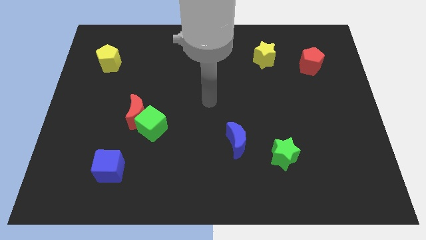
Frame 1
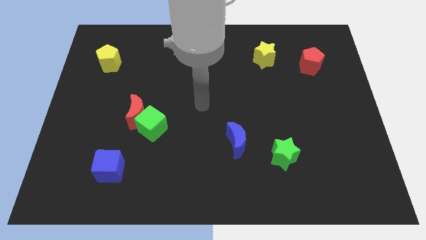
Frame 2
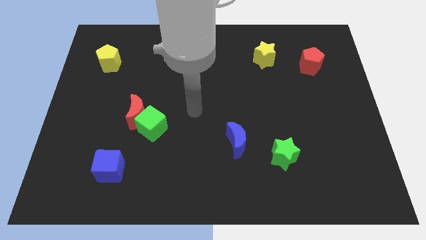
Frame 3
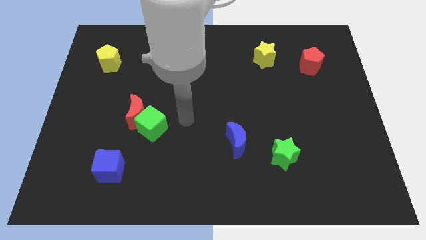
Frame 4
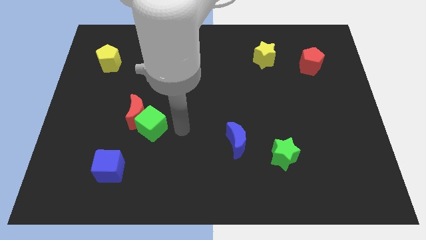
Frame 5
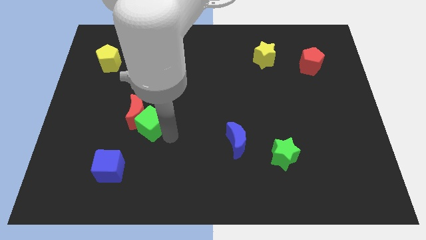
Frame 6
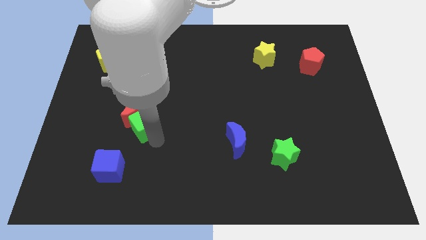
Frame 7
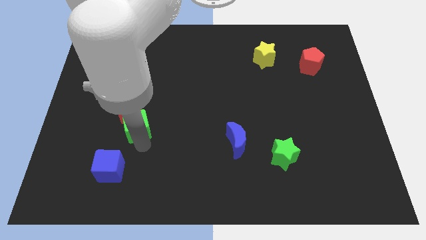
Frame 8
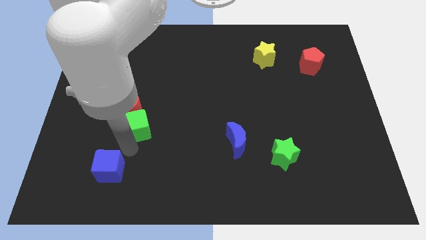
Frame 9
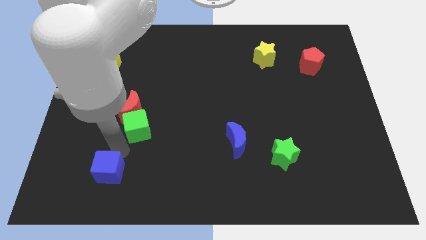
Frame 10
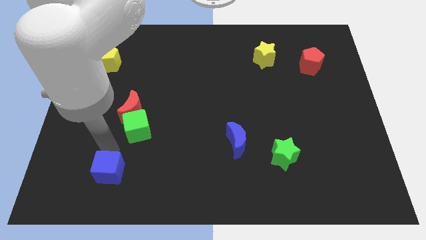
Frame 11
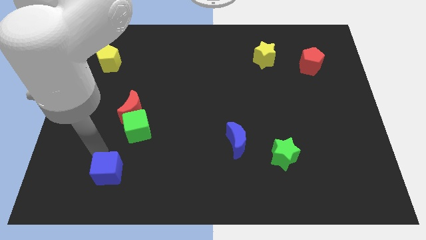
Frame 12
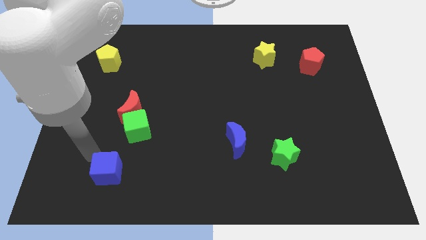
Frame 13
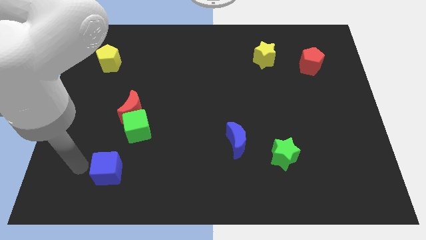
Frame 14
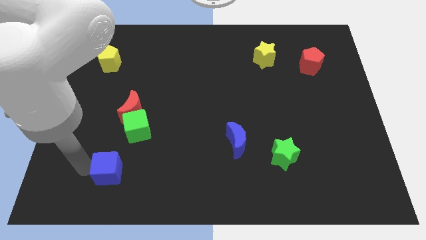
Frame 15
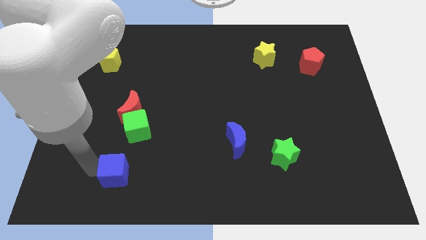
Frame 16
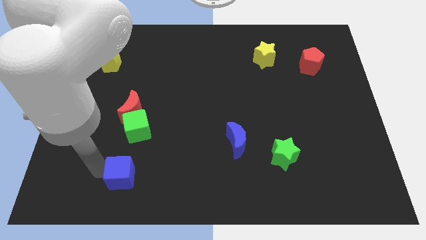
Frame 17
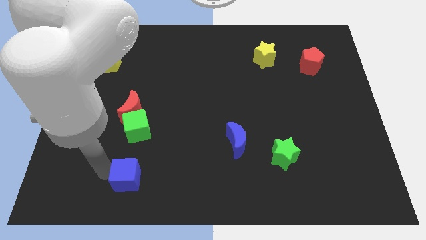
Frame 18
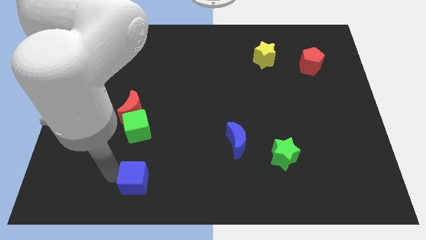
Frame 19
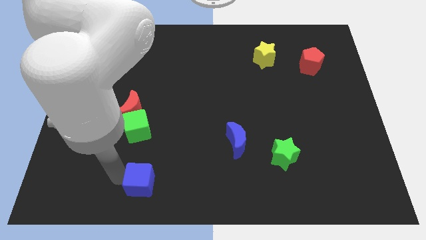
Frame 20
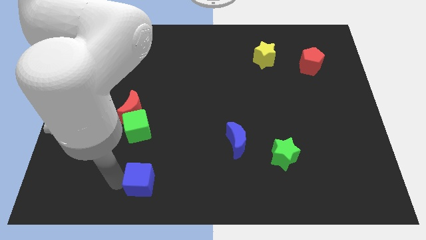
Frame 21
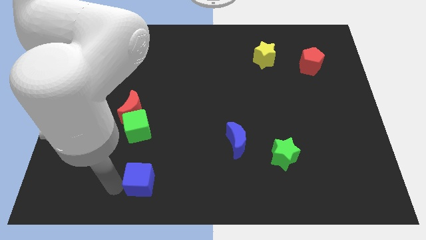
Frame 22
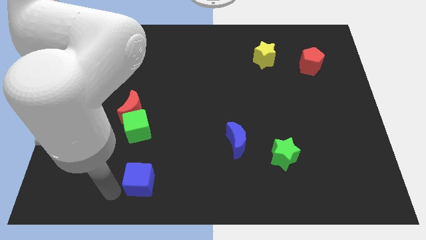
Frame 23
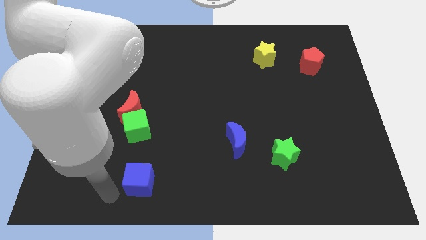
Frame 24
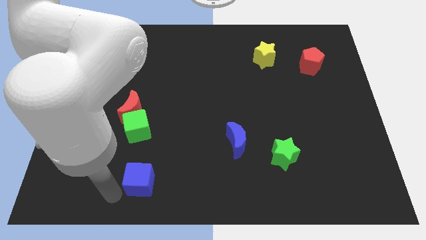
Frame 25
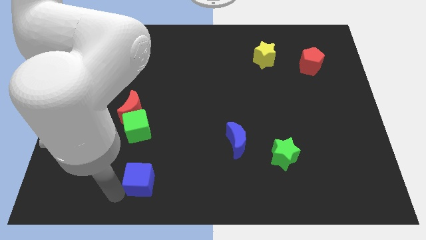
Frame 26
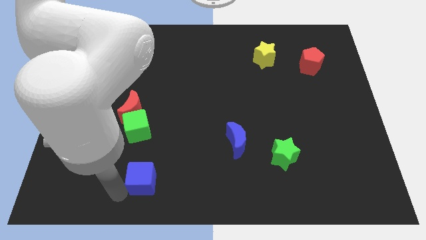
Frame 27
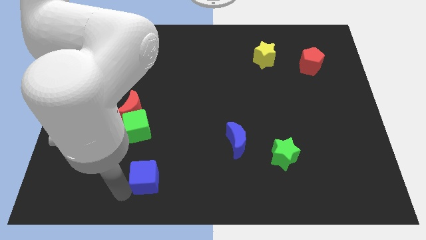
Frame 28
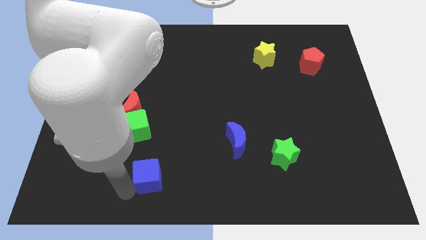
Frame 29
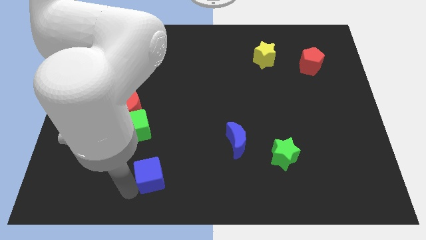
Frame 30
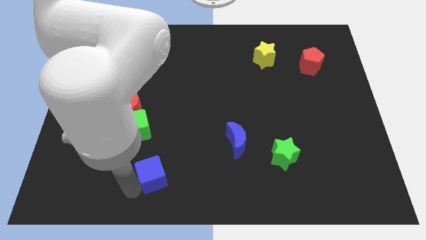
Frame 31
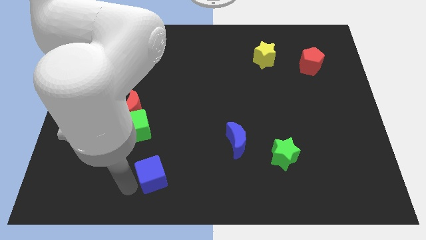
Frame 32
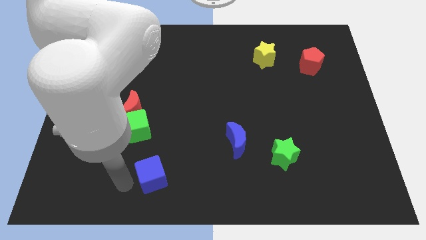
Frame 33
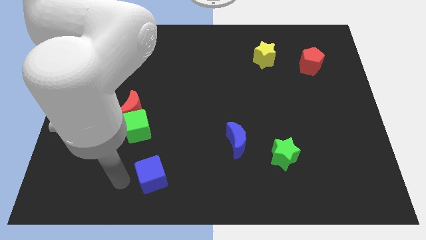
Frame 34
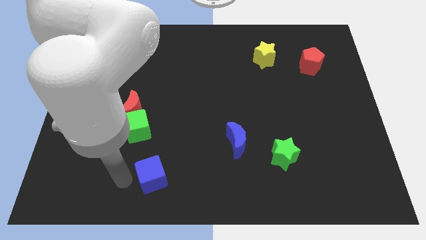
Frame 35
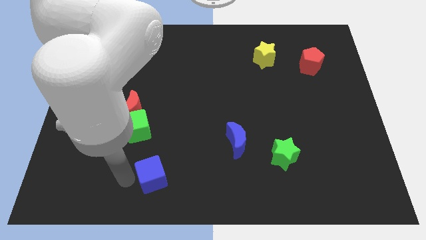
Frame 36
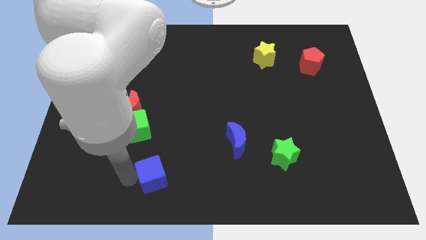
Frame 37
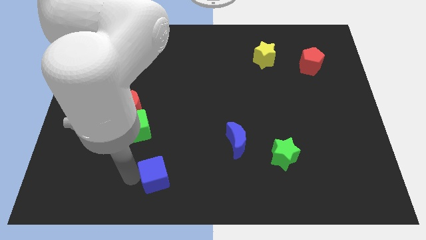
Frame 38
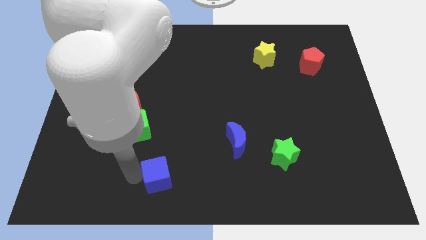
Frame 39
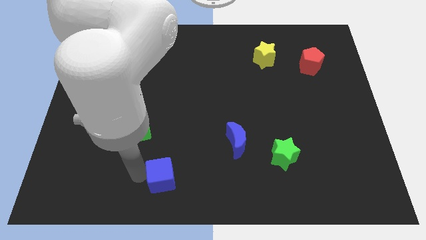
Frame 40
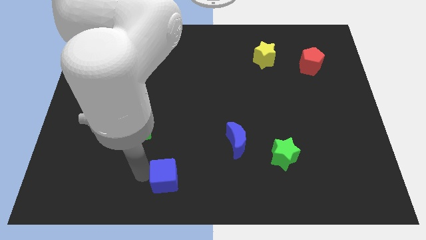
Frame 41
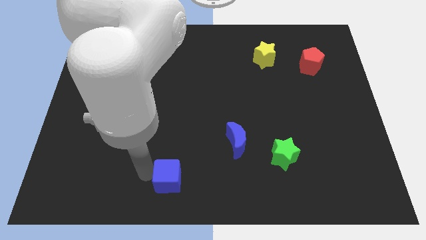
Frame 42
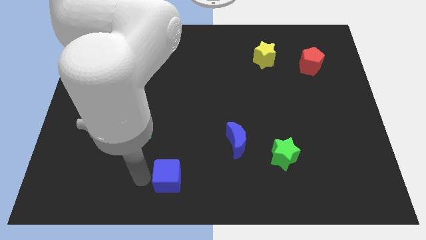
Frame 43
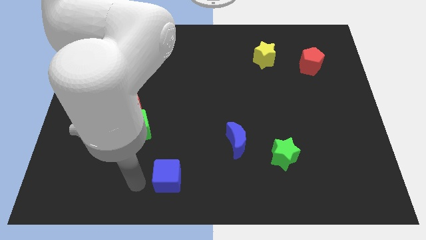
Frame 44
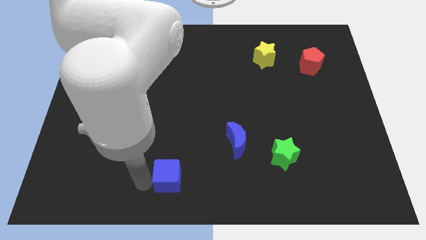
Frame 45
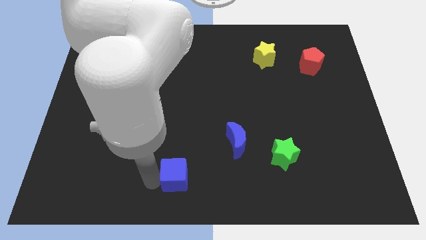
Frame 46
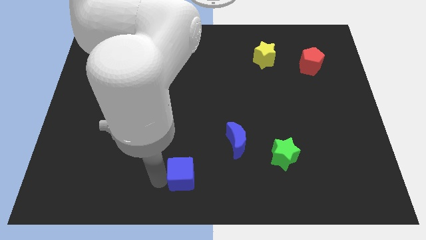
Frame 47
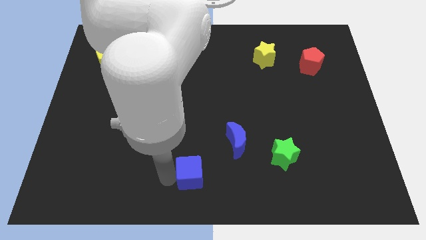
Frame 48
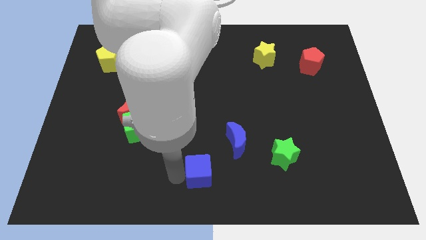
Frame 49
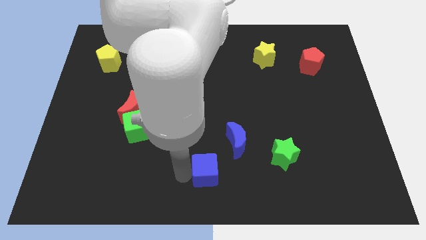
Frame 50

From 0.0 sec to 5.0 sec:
push the blue cube to the right

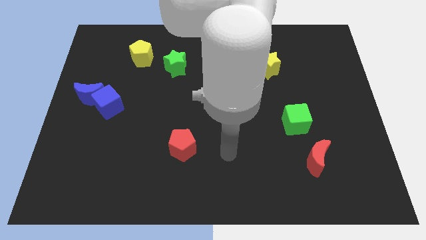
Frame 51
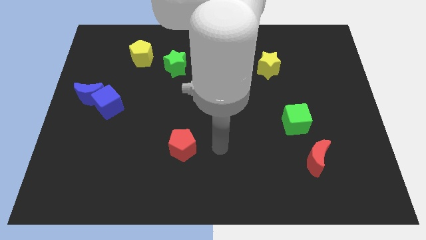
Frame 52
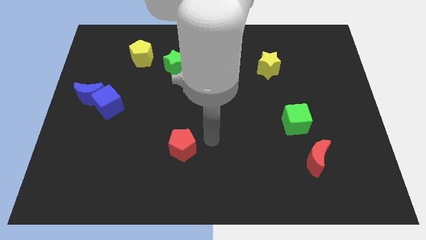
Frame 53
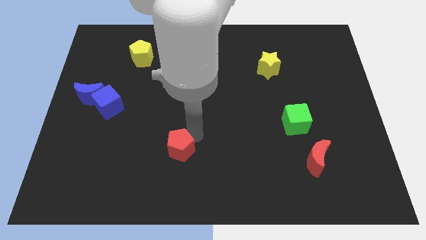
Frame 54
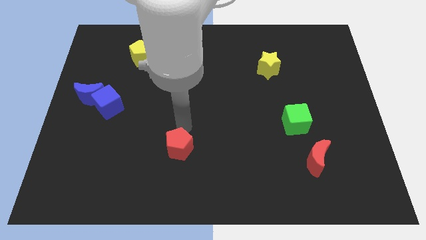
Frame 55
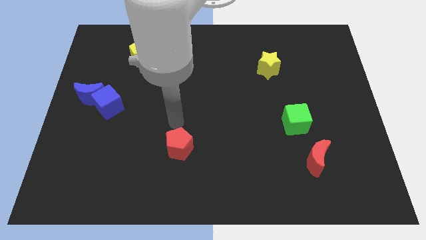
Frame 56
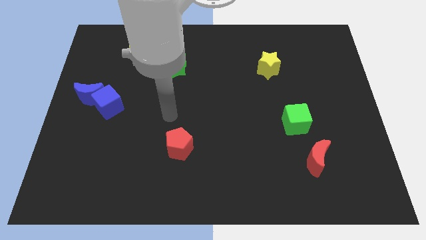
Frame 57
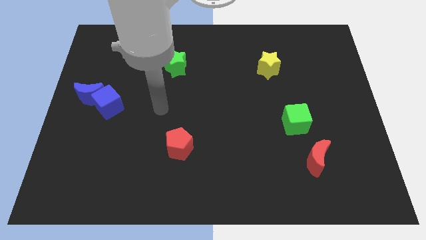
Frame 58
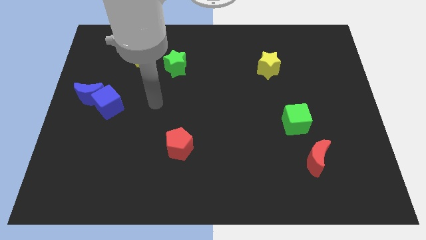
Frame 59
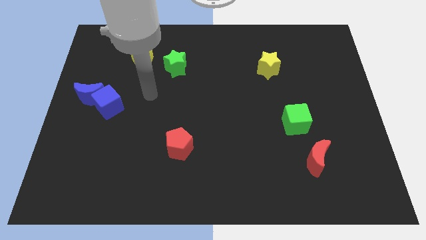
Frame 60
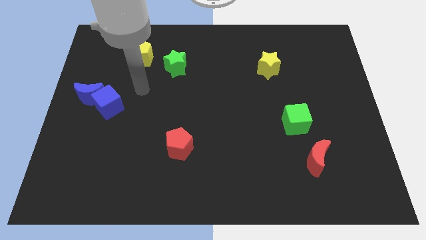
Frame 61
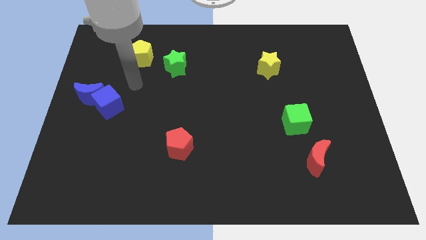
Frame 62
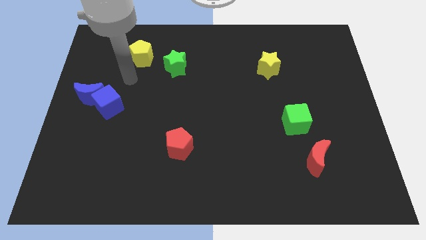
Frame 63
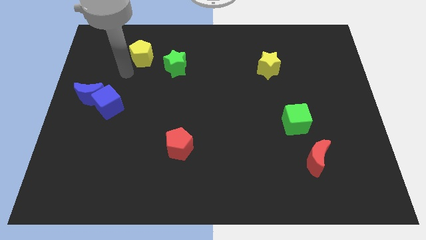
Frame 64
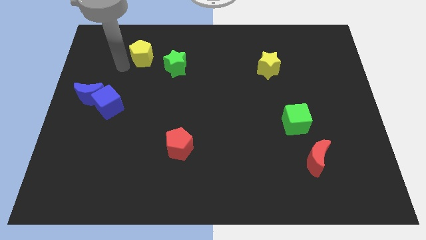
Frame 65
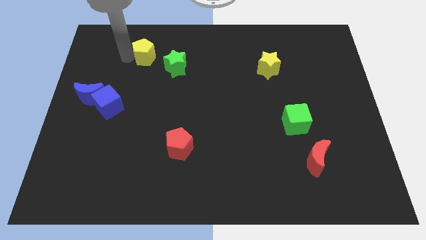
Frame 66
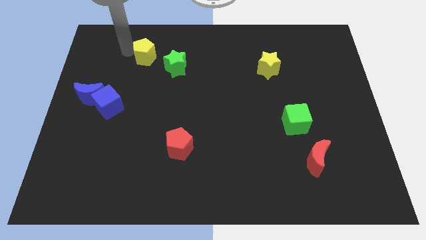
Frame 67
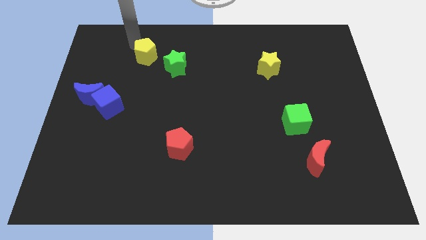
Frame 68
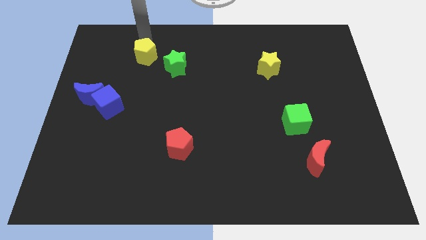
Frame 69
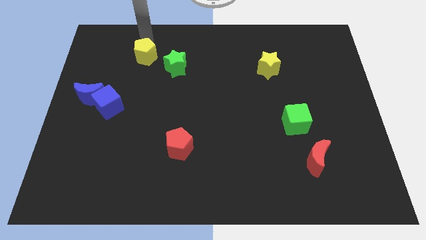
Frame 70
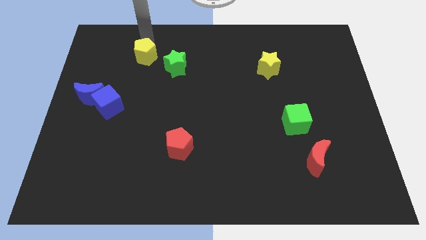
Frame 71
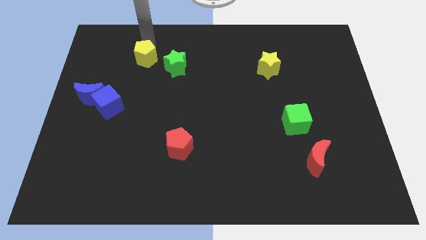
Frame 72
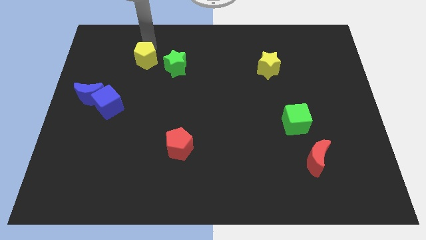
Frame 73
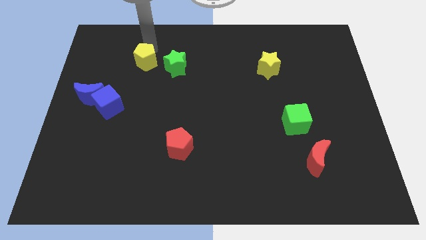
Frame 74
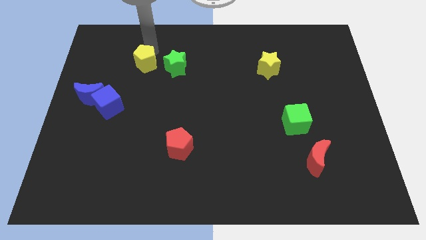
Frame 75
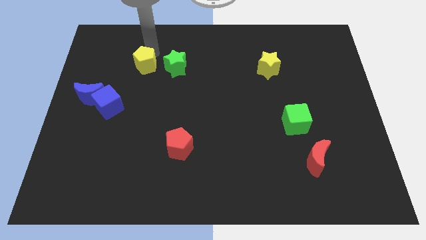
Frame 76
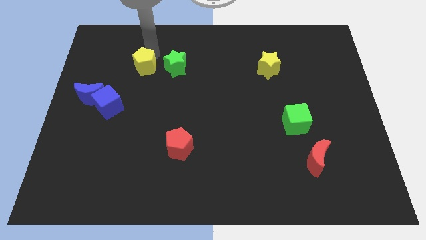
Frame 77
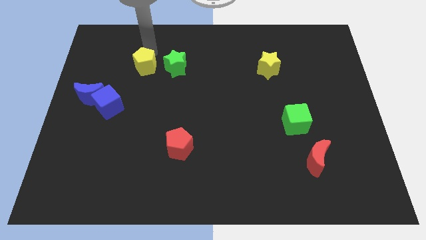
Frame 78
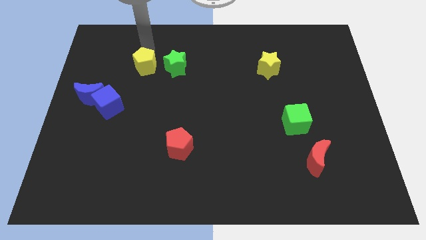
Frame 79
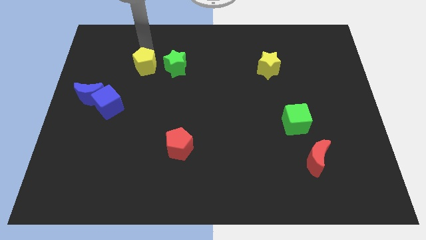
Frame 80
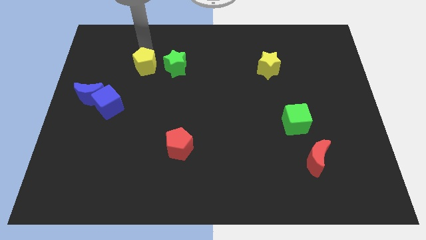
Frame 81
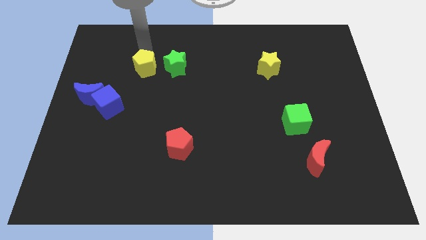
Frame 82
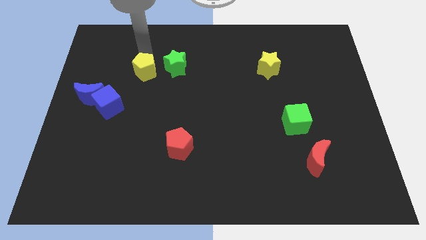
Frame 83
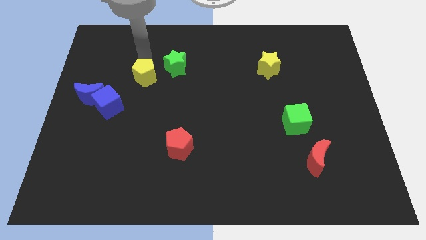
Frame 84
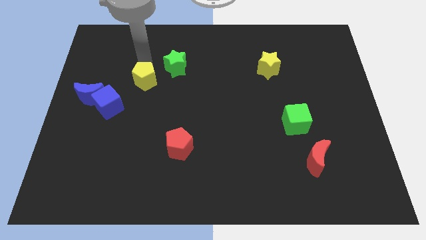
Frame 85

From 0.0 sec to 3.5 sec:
slightly push the yellow pentagon down
